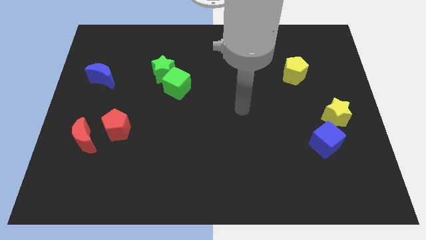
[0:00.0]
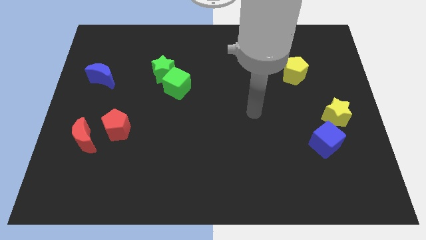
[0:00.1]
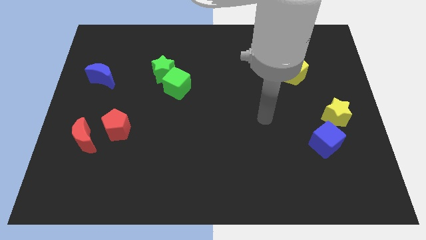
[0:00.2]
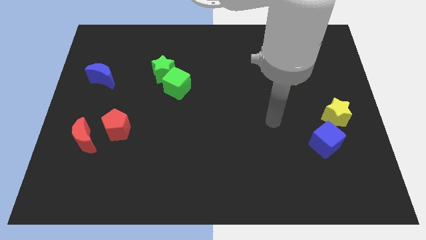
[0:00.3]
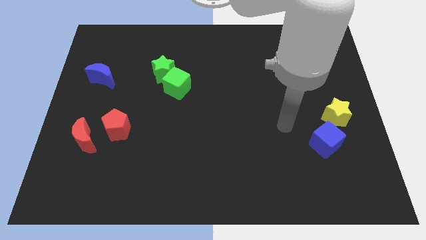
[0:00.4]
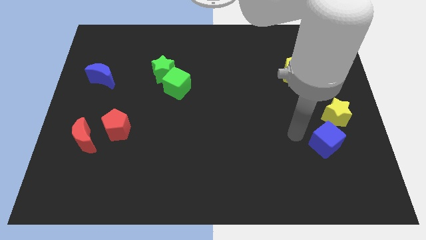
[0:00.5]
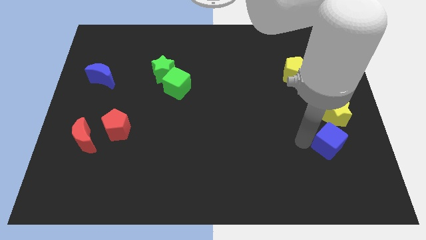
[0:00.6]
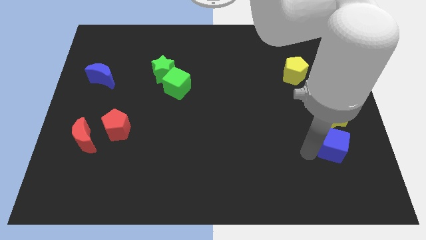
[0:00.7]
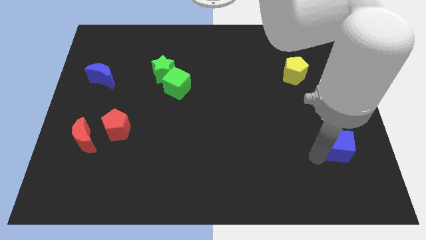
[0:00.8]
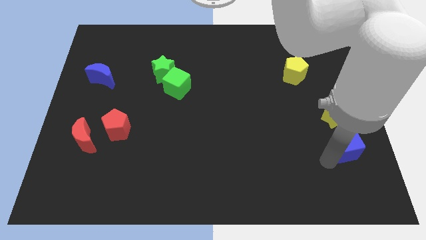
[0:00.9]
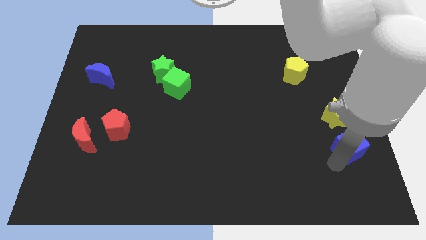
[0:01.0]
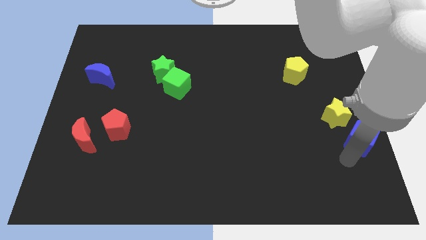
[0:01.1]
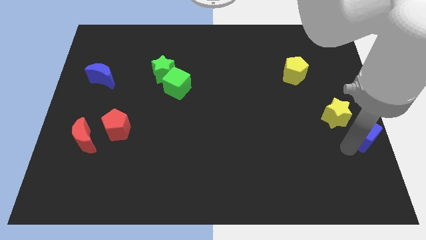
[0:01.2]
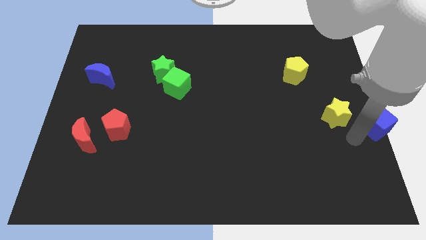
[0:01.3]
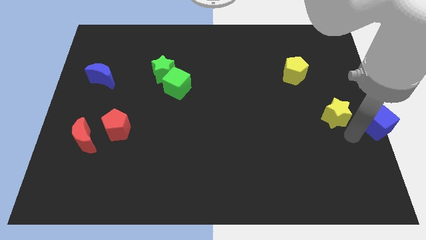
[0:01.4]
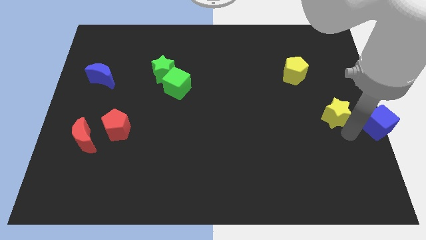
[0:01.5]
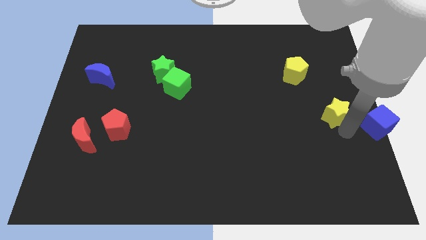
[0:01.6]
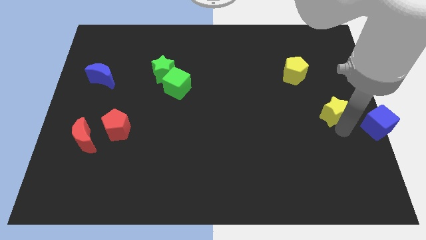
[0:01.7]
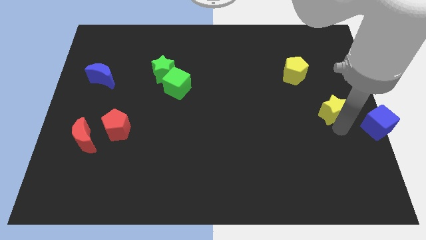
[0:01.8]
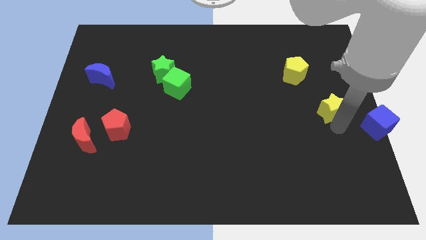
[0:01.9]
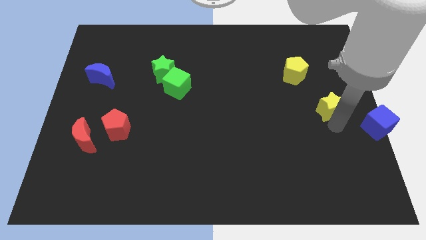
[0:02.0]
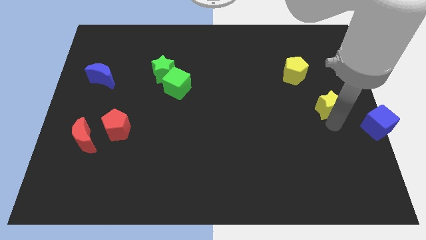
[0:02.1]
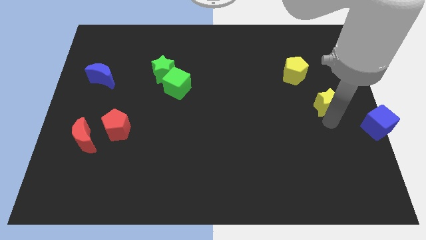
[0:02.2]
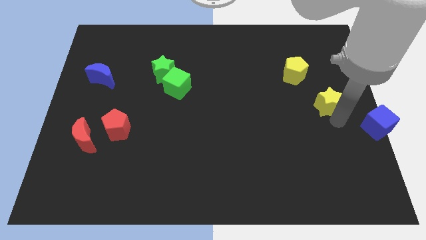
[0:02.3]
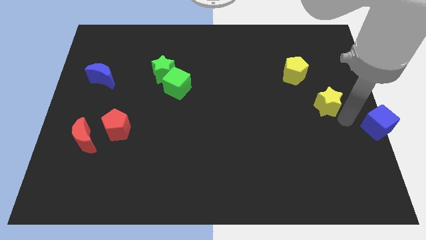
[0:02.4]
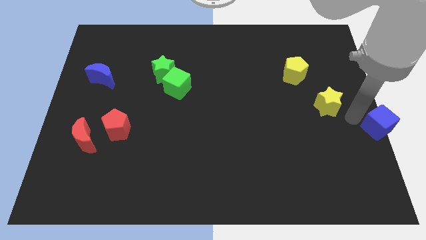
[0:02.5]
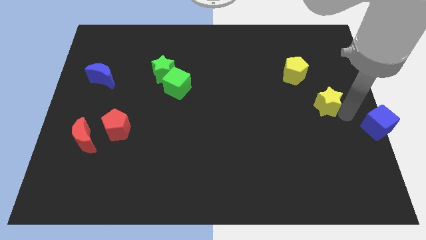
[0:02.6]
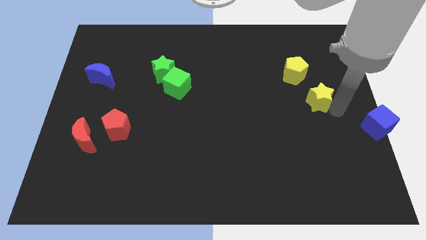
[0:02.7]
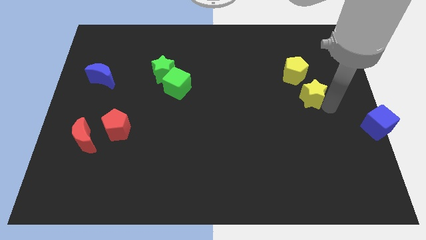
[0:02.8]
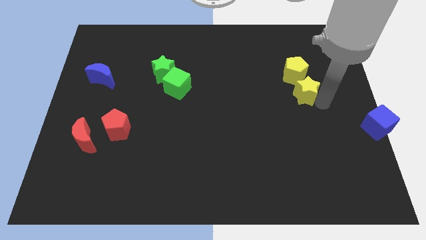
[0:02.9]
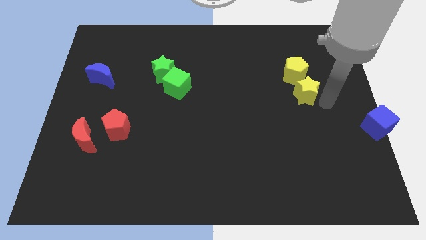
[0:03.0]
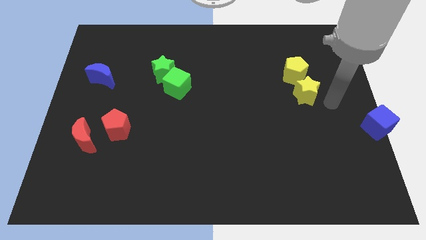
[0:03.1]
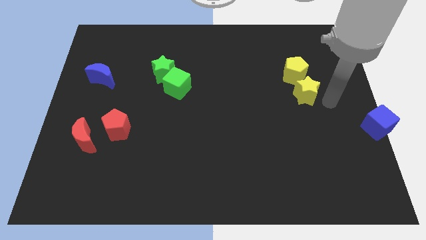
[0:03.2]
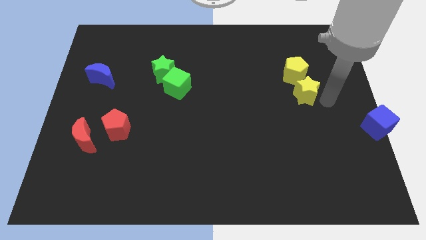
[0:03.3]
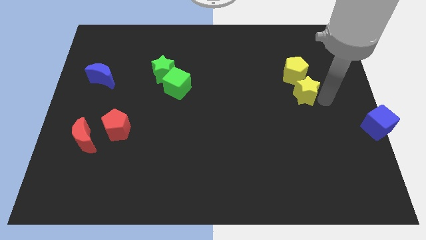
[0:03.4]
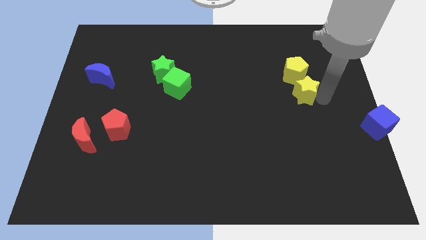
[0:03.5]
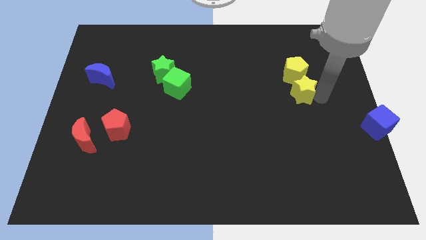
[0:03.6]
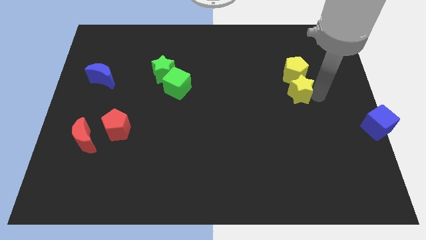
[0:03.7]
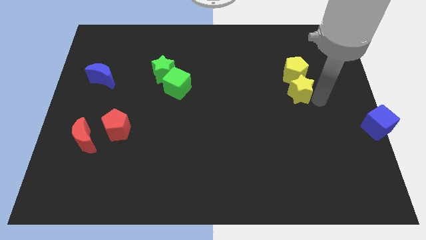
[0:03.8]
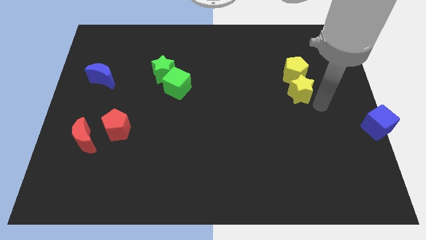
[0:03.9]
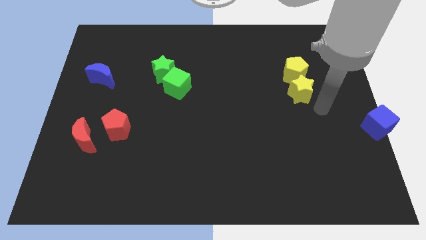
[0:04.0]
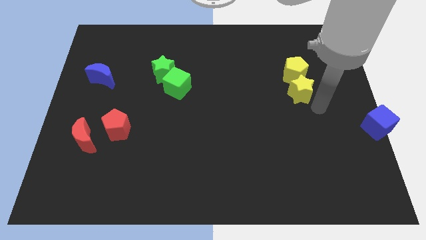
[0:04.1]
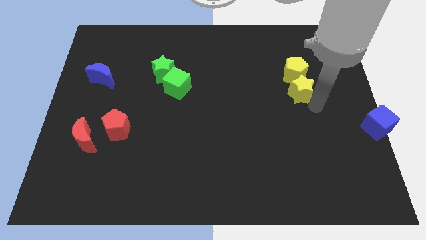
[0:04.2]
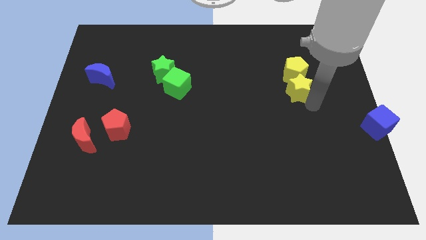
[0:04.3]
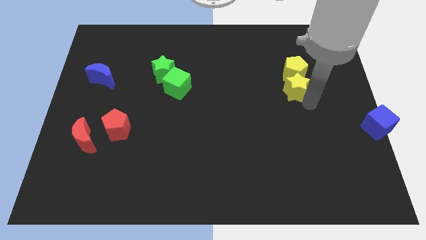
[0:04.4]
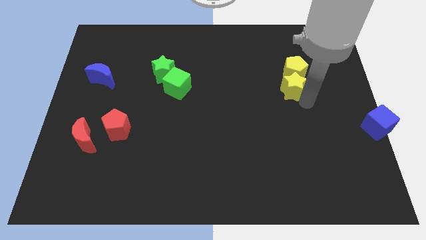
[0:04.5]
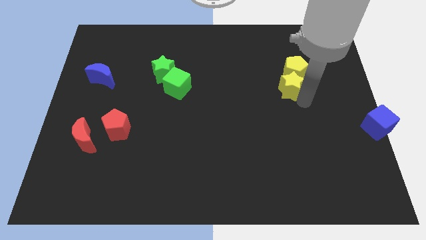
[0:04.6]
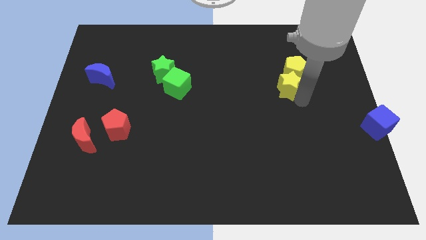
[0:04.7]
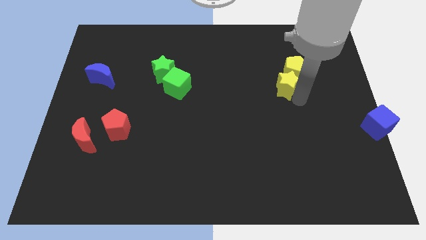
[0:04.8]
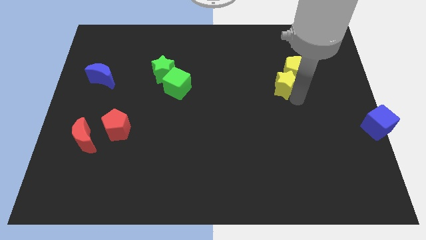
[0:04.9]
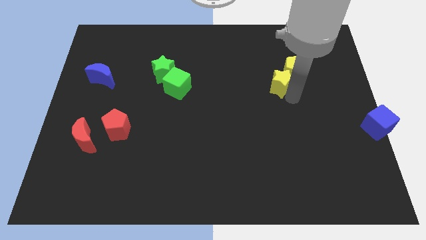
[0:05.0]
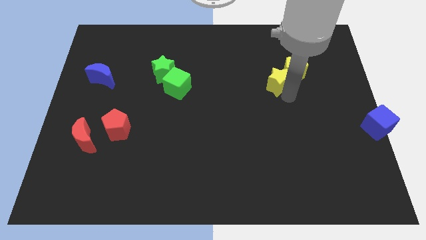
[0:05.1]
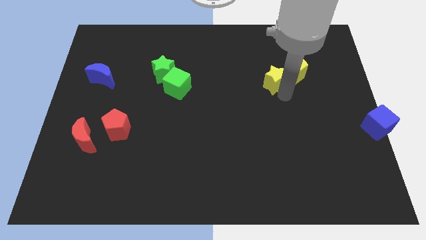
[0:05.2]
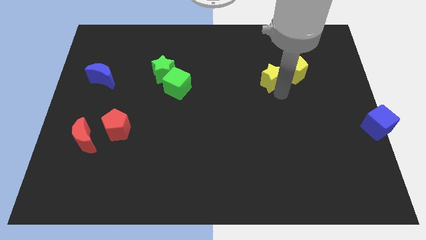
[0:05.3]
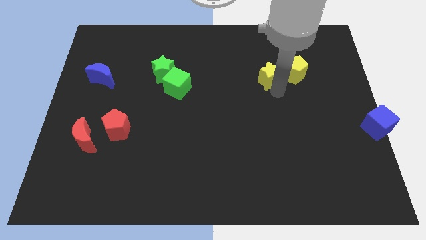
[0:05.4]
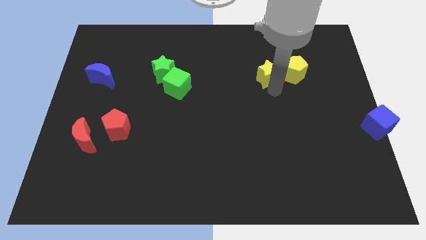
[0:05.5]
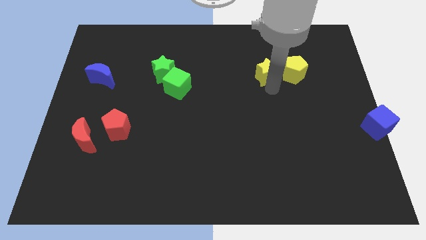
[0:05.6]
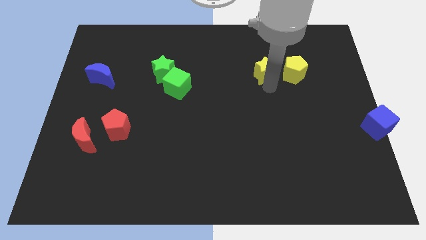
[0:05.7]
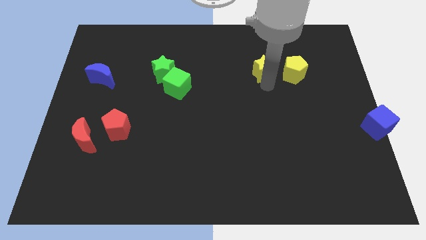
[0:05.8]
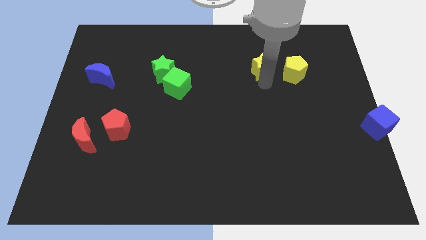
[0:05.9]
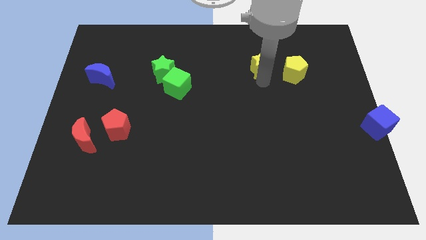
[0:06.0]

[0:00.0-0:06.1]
push the yellow star diagonally up and to the left of the yellow pentagon

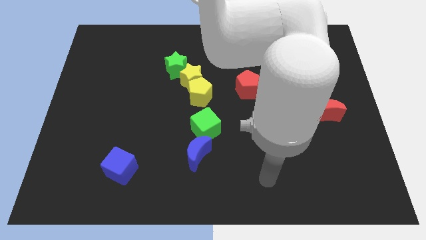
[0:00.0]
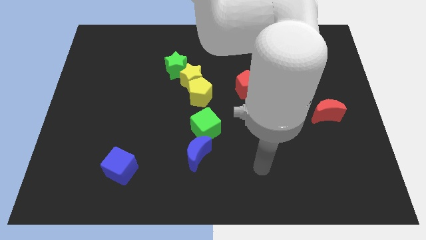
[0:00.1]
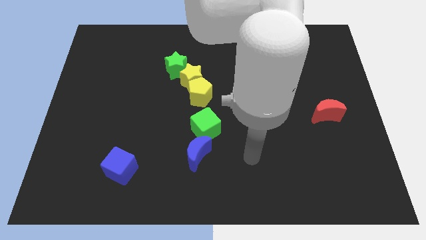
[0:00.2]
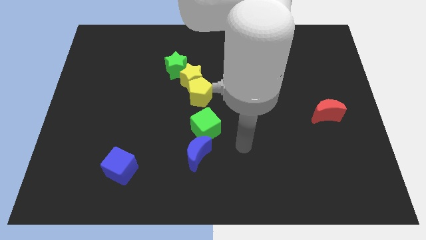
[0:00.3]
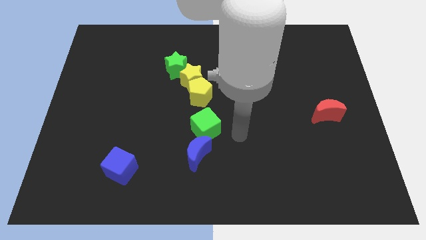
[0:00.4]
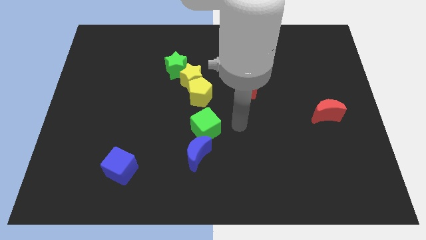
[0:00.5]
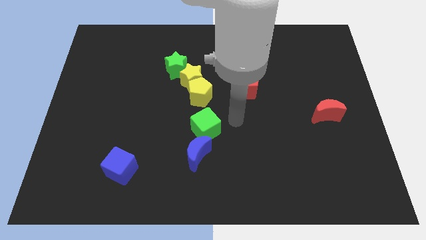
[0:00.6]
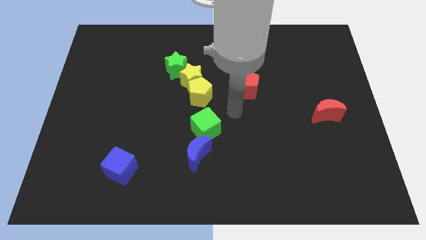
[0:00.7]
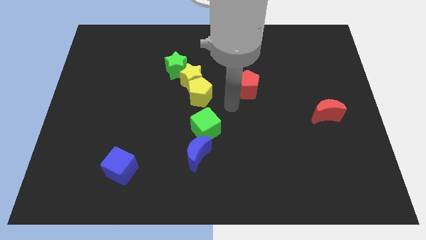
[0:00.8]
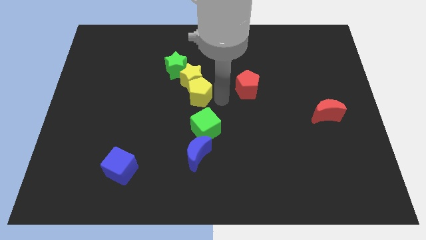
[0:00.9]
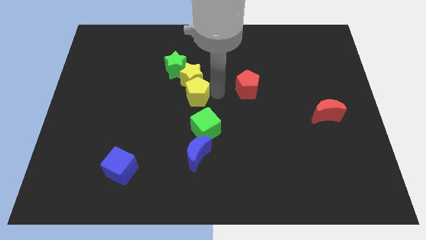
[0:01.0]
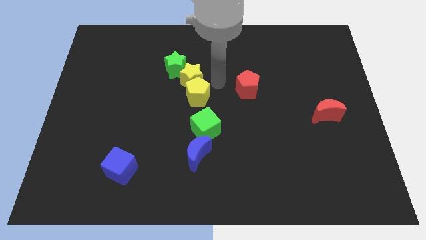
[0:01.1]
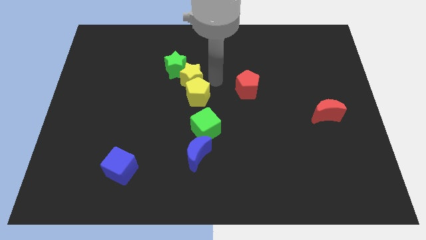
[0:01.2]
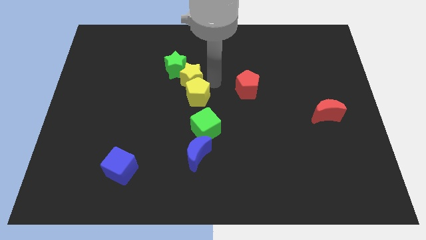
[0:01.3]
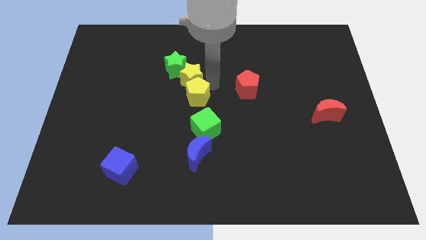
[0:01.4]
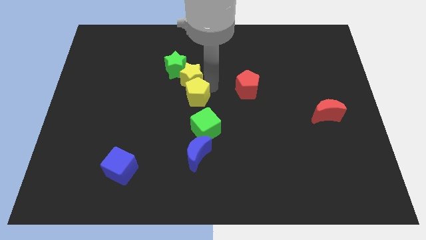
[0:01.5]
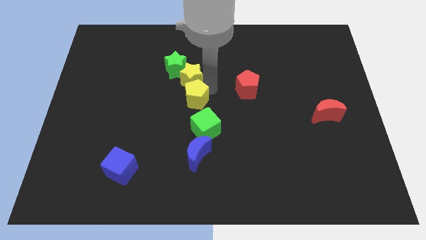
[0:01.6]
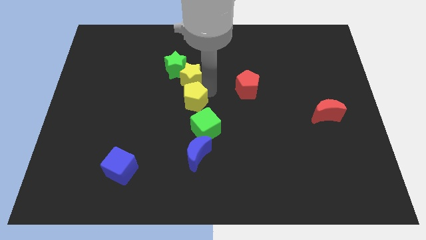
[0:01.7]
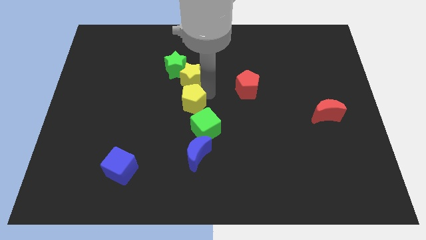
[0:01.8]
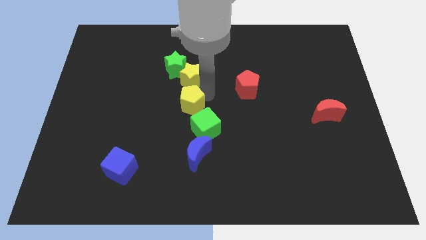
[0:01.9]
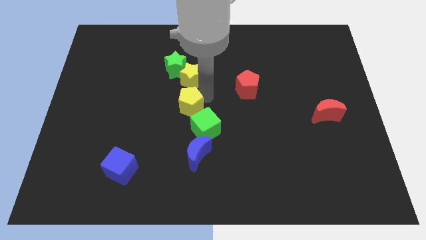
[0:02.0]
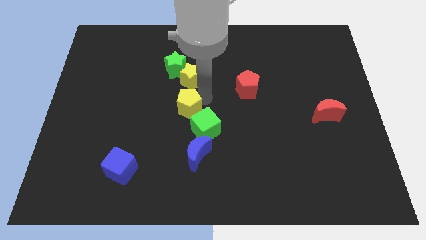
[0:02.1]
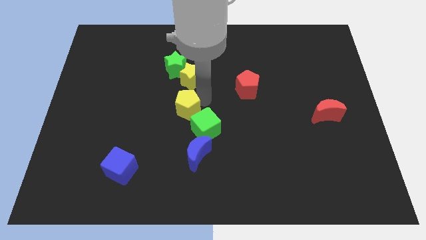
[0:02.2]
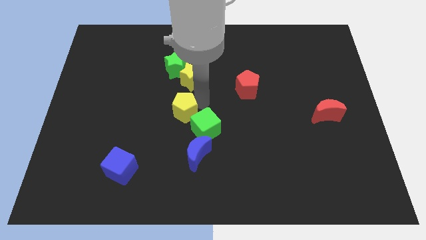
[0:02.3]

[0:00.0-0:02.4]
put the yellow pentagon just left of the green cube
